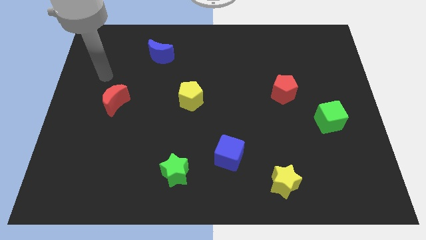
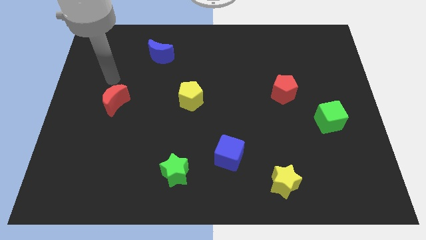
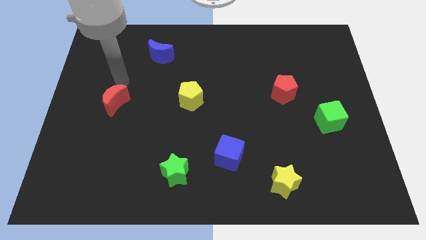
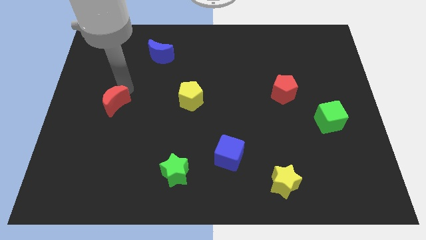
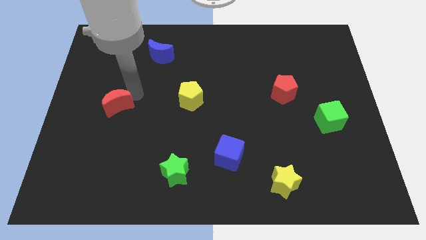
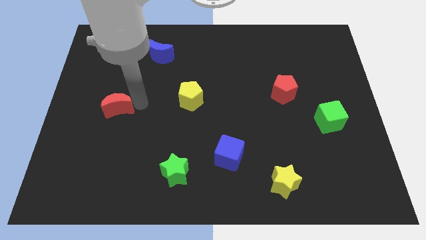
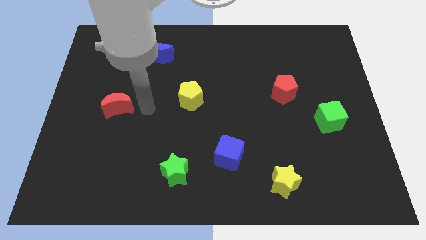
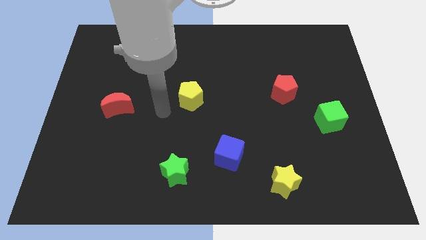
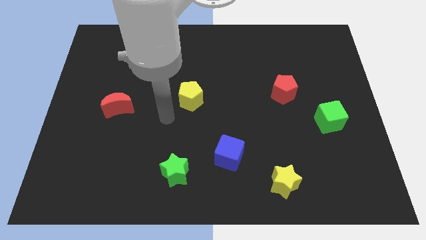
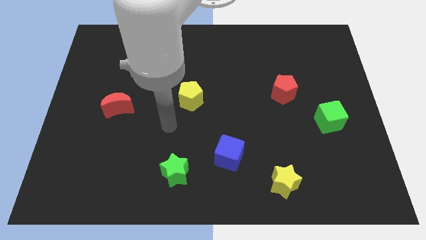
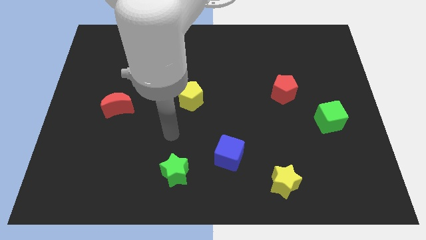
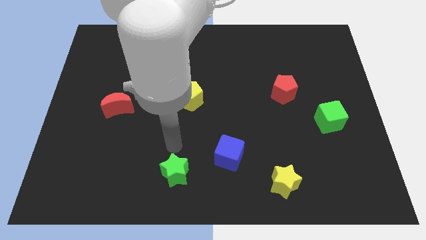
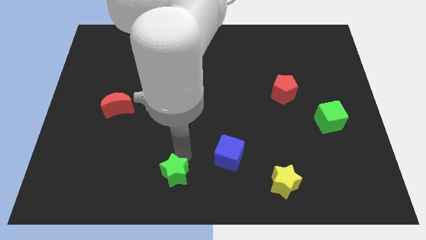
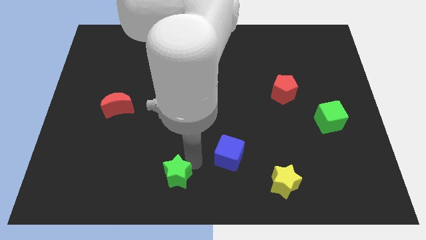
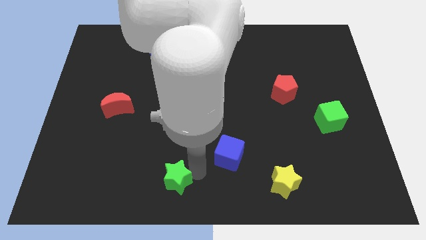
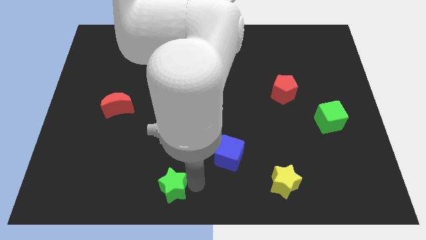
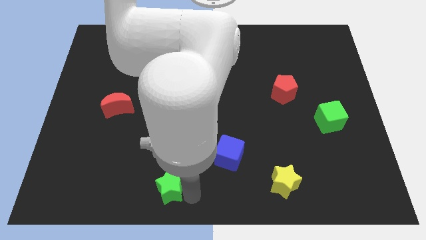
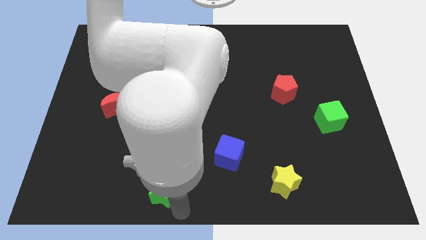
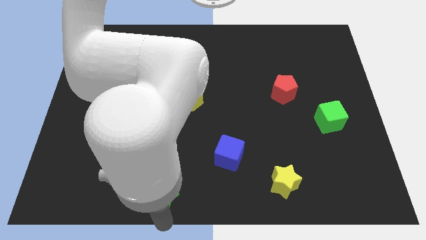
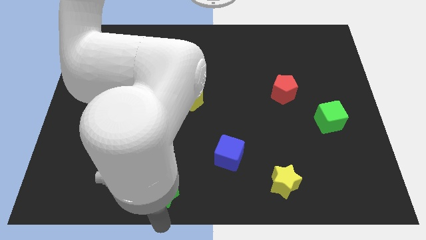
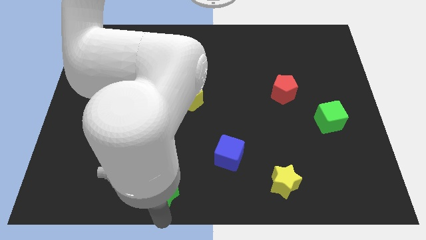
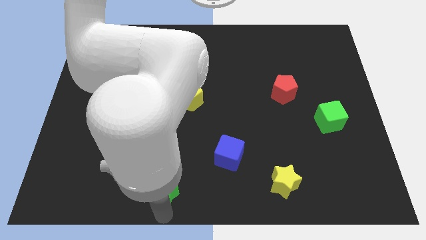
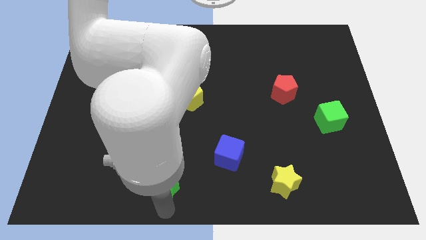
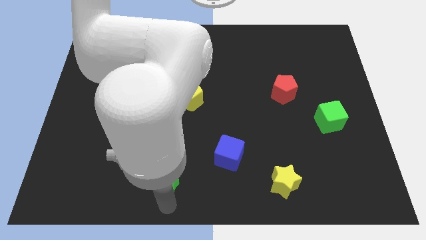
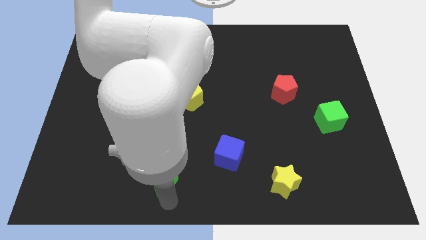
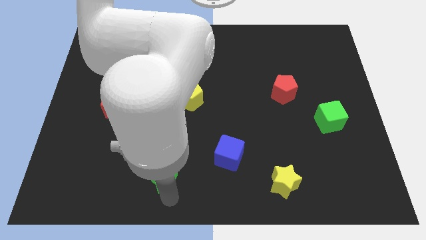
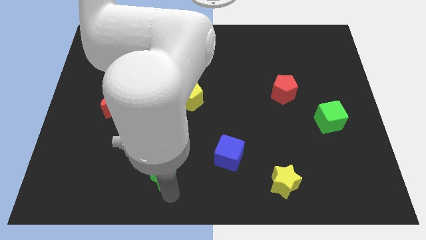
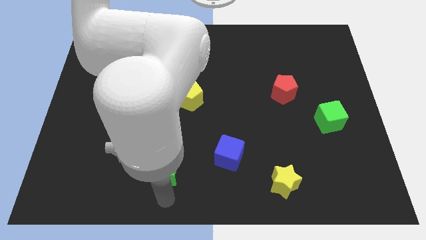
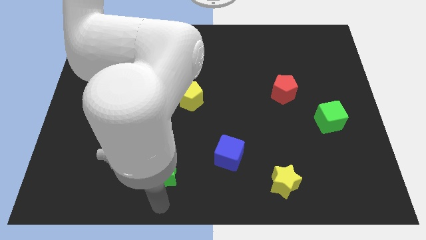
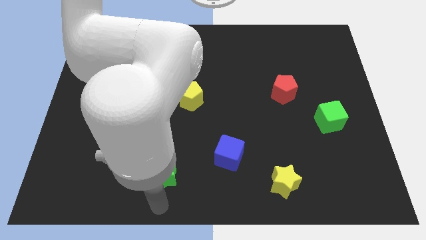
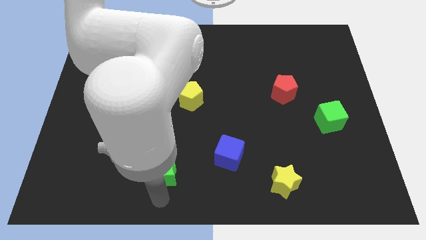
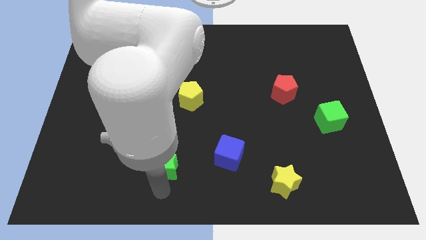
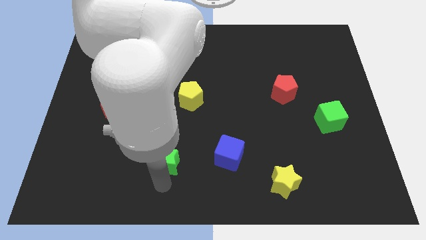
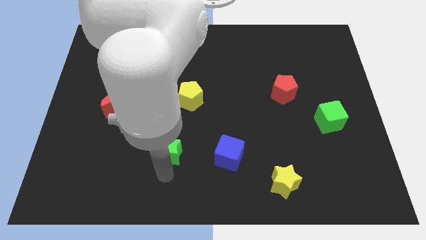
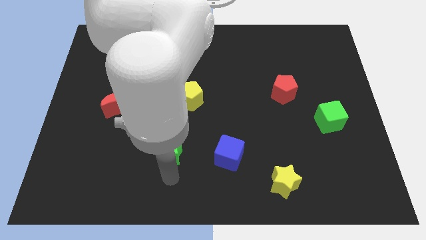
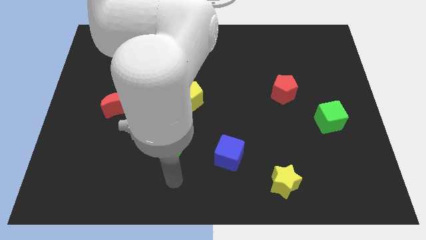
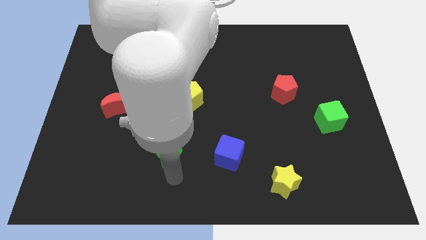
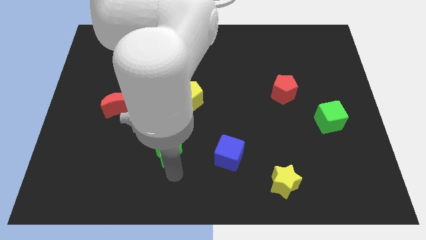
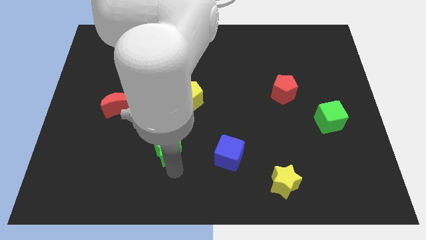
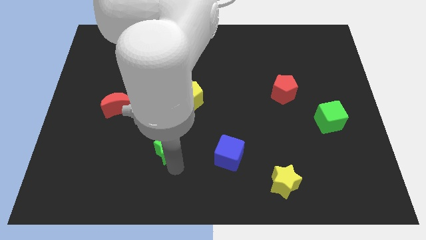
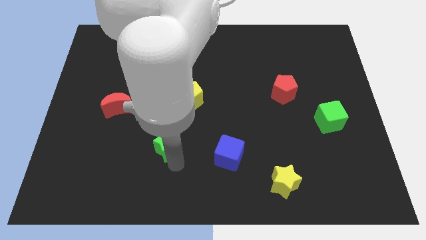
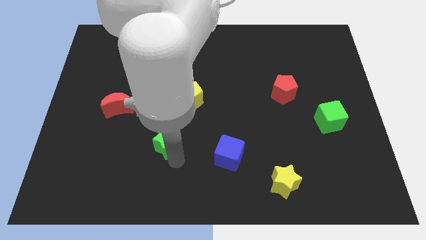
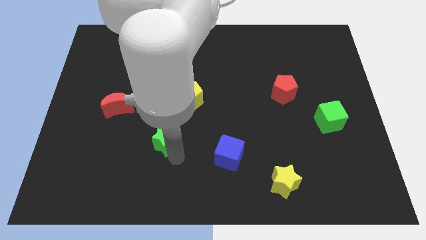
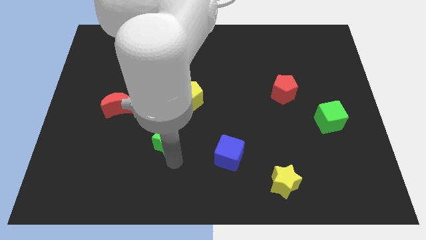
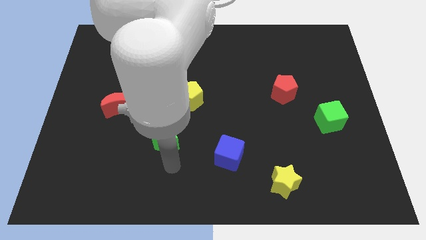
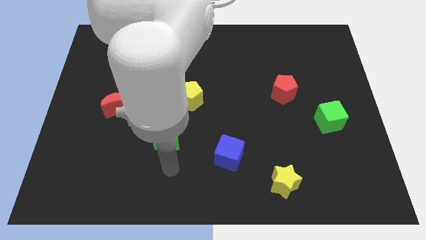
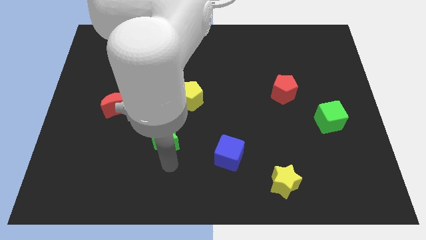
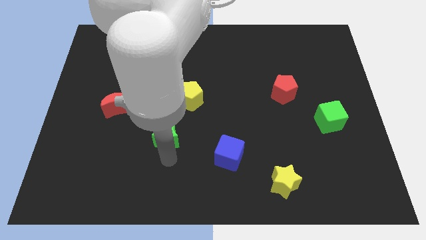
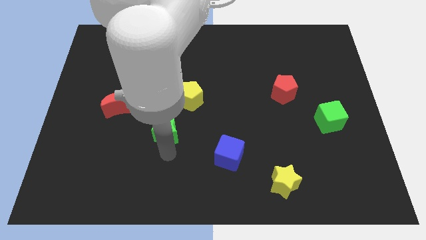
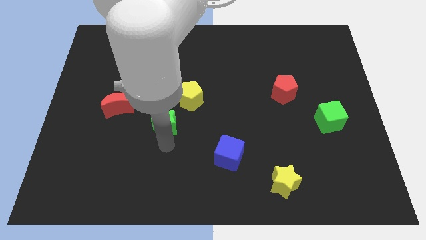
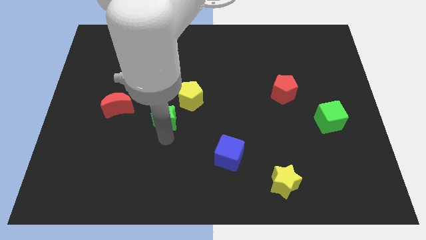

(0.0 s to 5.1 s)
move the green star right of the red moon

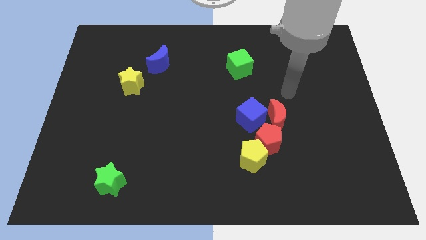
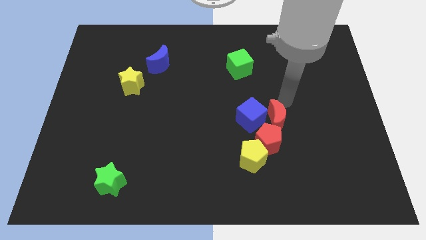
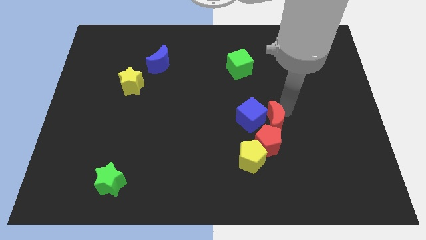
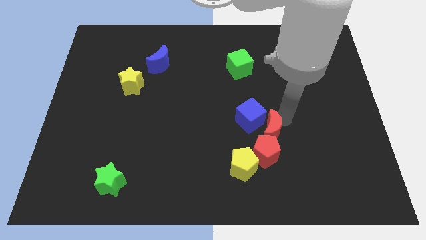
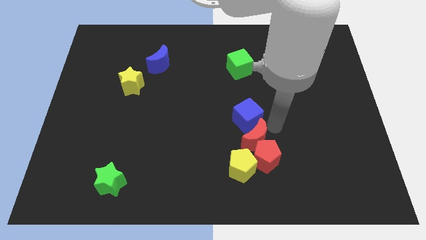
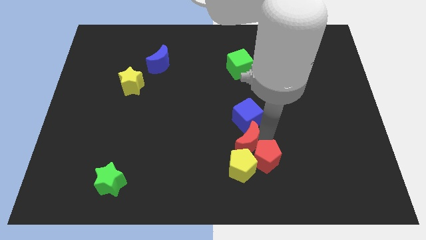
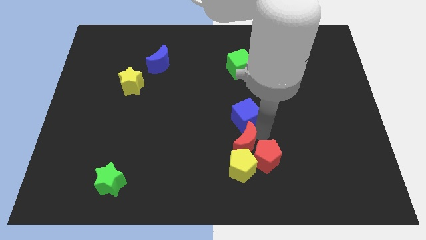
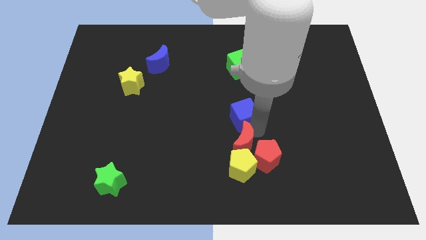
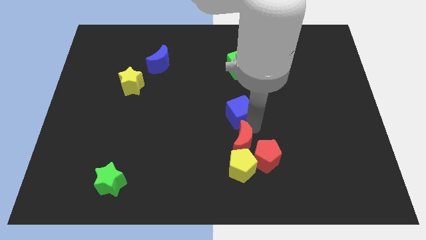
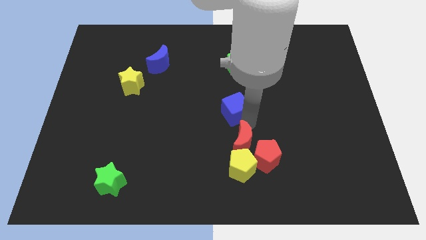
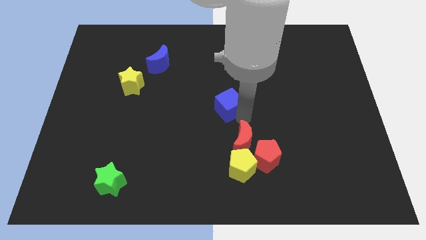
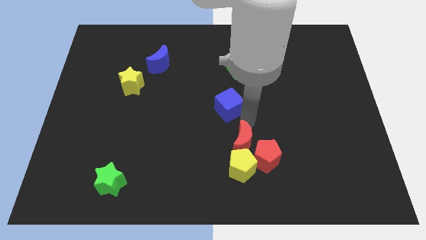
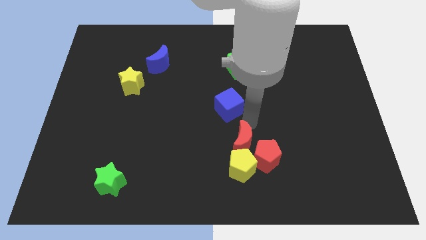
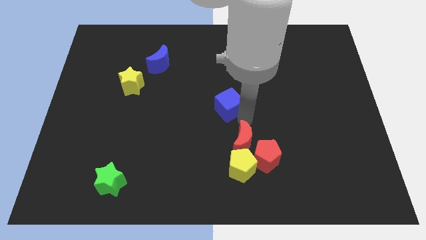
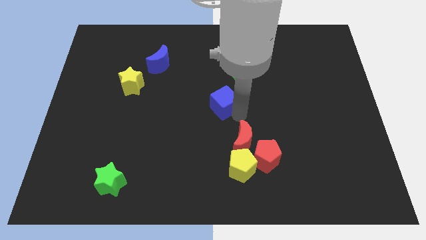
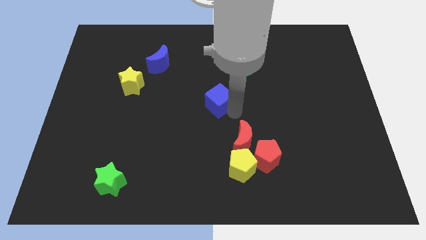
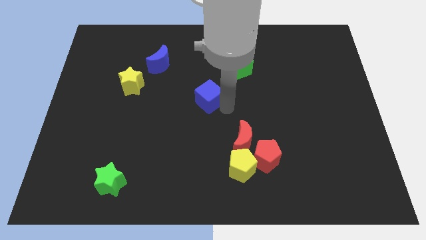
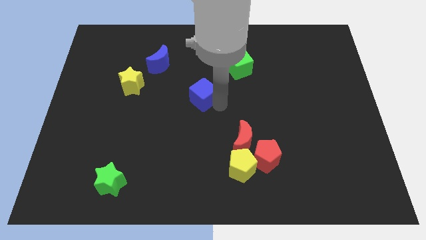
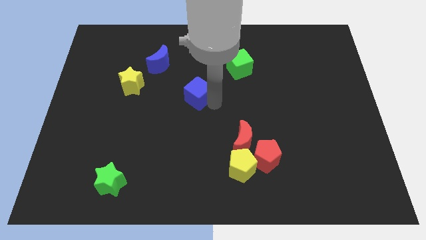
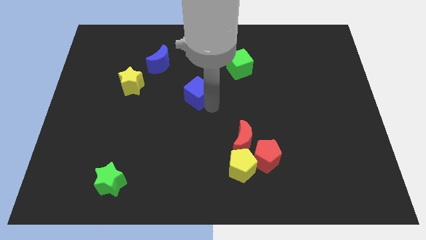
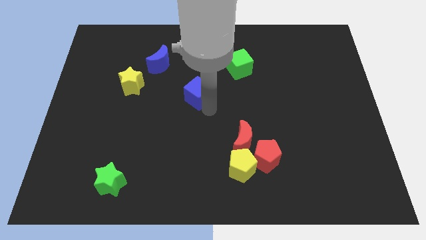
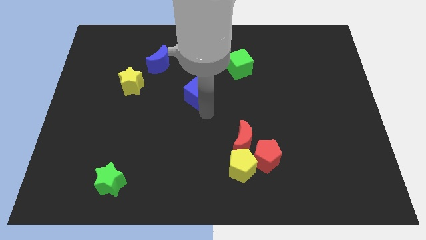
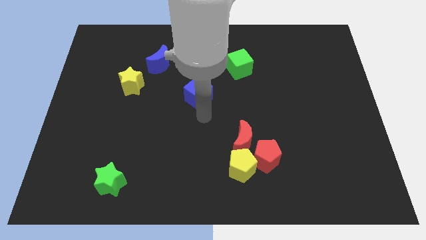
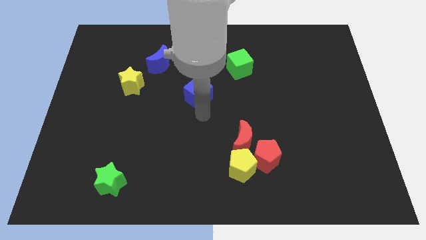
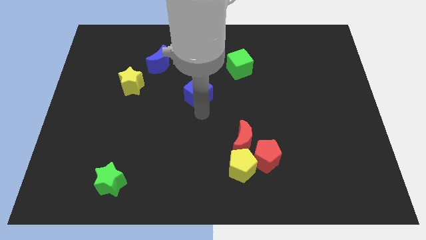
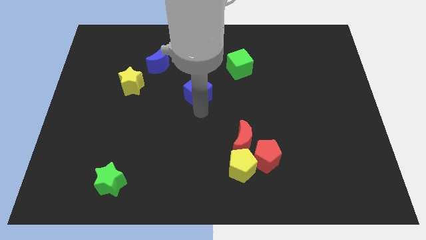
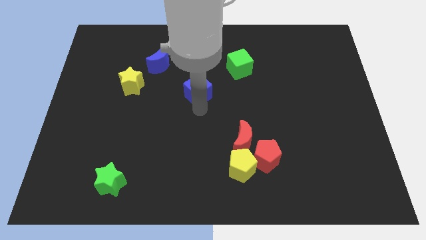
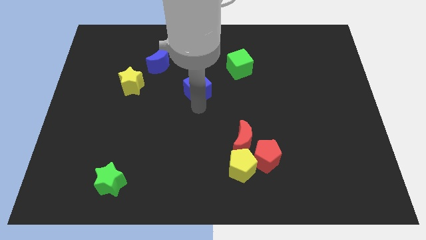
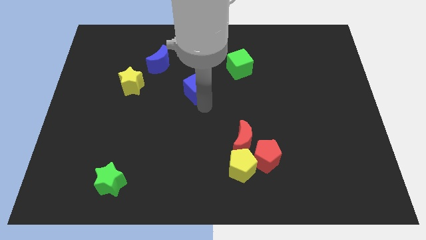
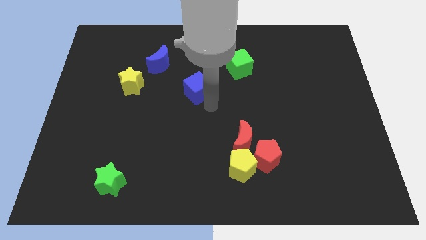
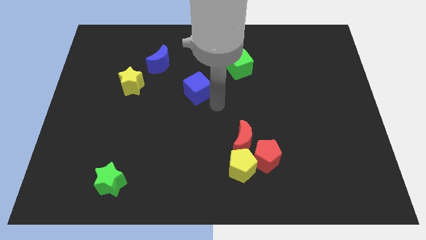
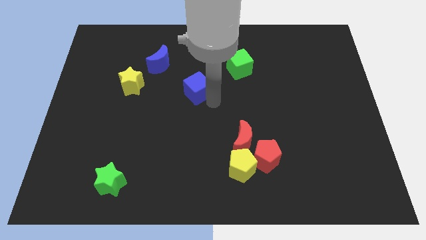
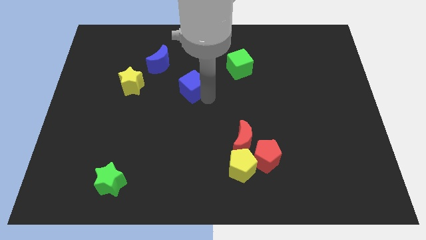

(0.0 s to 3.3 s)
slide the blue cube to the bottom right side of the blue moon
